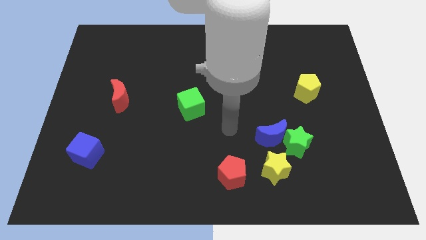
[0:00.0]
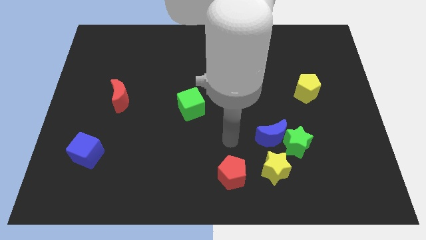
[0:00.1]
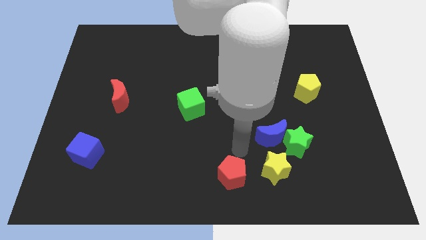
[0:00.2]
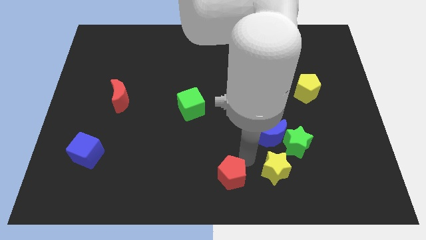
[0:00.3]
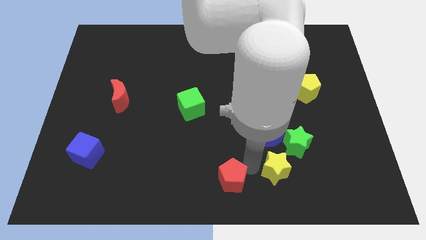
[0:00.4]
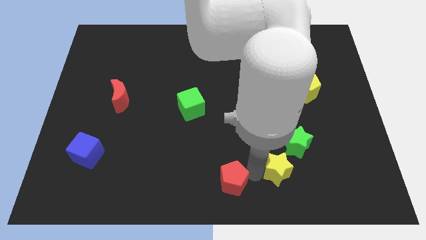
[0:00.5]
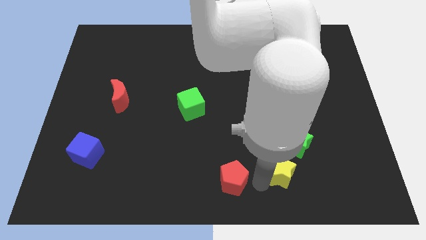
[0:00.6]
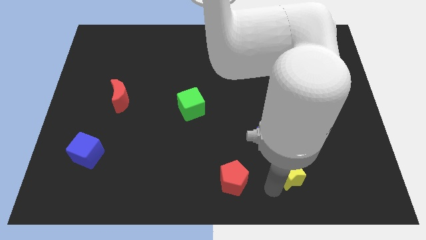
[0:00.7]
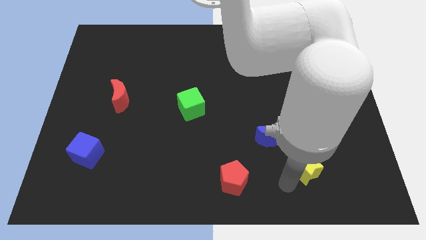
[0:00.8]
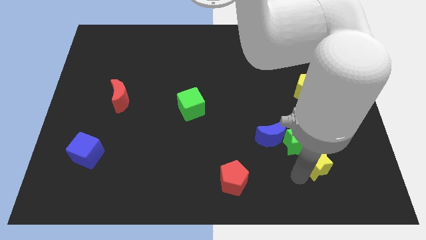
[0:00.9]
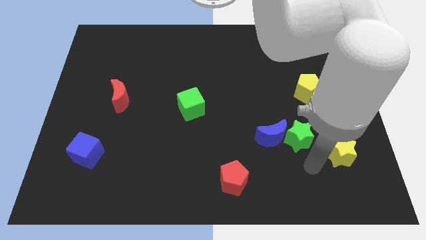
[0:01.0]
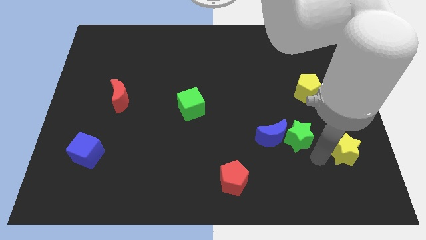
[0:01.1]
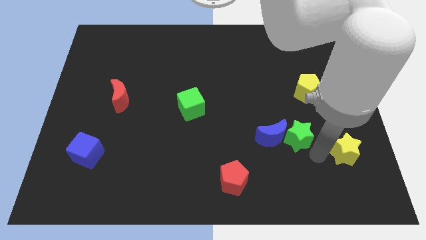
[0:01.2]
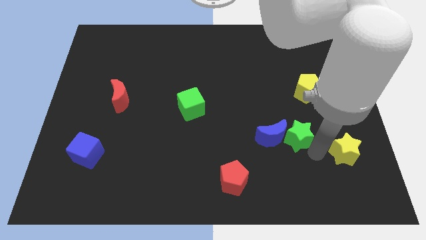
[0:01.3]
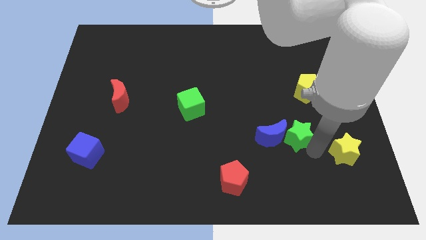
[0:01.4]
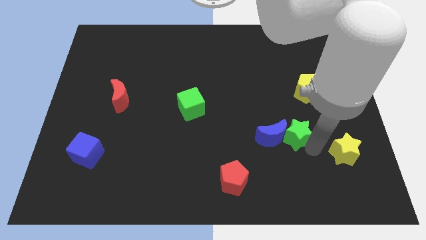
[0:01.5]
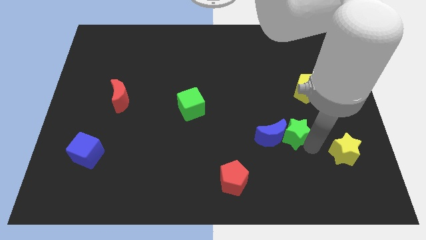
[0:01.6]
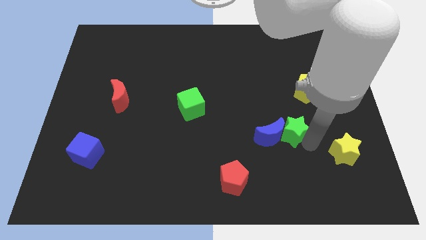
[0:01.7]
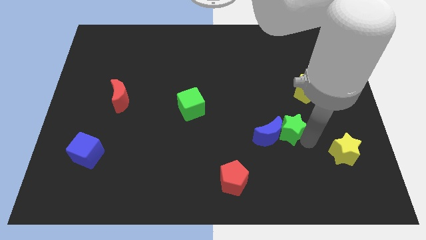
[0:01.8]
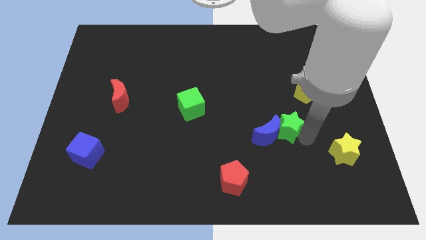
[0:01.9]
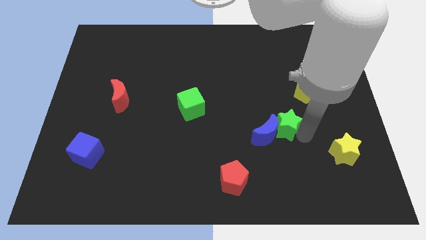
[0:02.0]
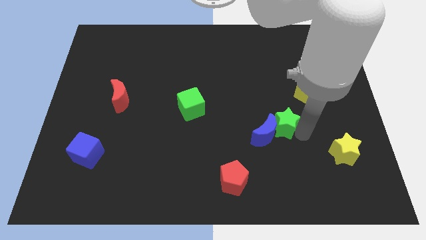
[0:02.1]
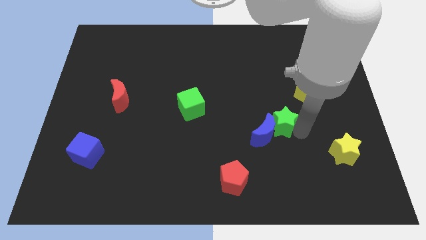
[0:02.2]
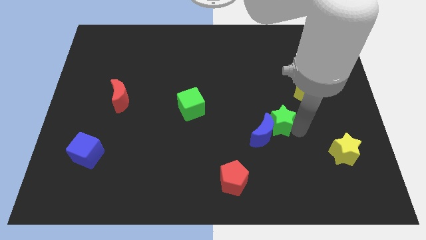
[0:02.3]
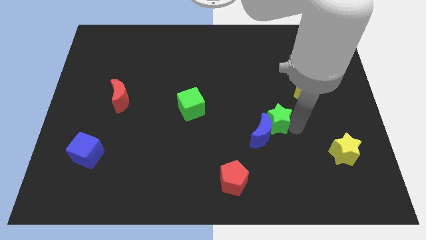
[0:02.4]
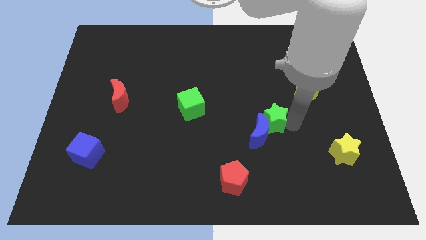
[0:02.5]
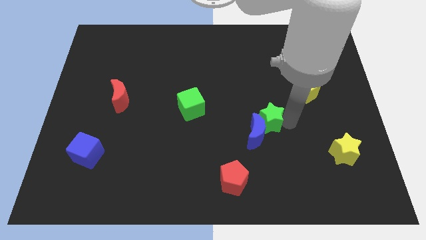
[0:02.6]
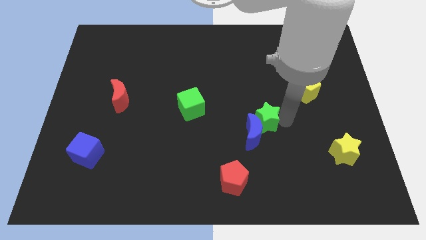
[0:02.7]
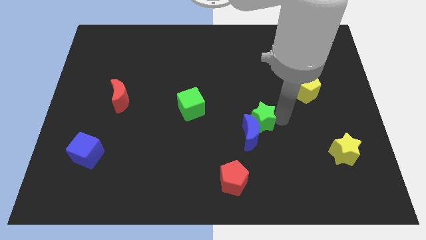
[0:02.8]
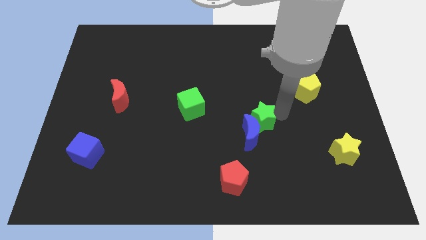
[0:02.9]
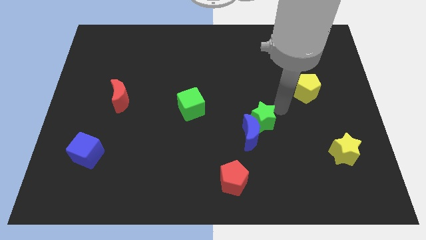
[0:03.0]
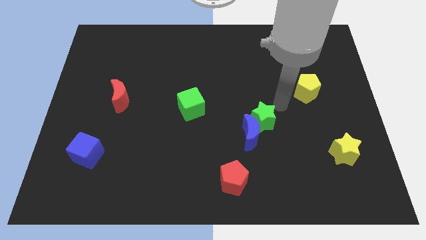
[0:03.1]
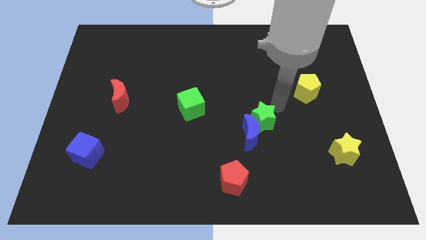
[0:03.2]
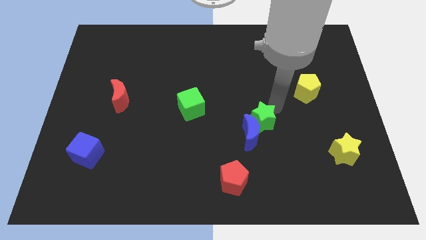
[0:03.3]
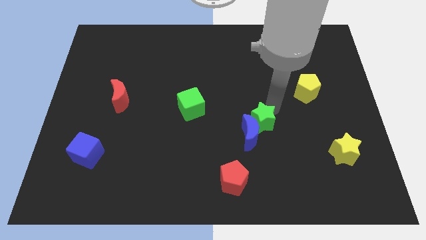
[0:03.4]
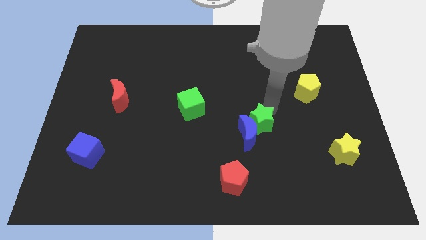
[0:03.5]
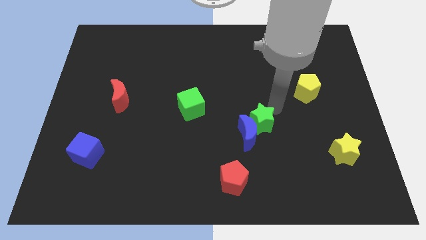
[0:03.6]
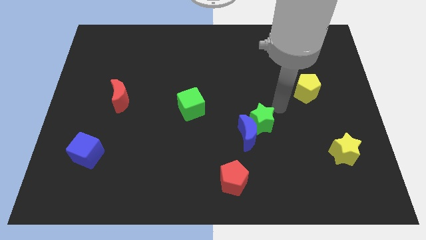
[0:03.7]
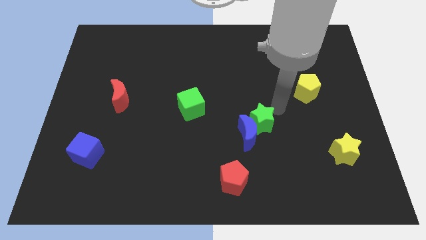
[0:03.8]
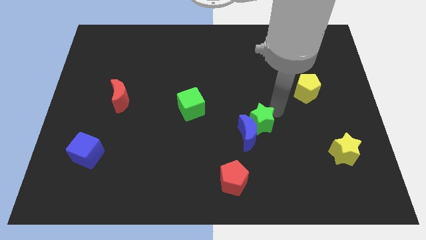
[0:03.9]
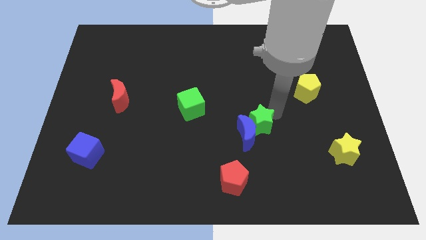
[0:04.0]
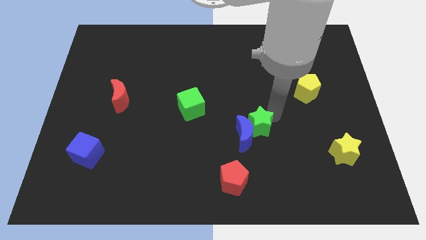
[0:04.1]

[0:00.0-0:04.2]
slide the green star slightly left

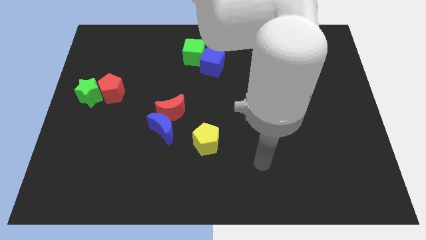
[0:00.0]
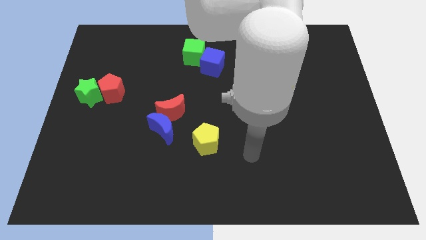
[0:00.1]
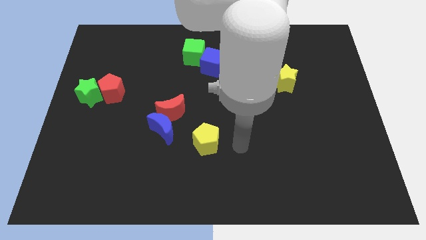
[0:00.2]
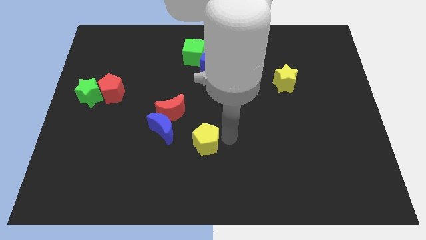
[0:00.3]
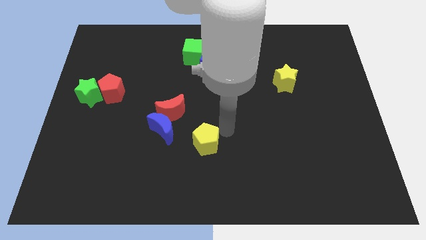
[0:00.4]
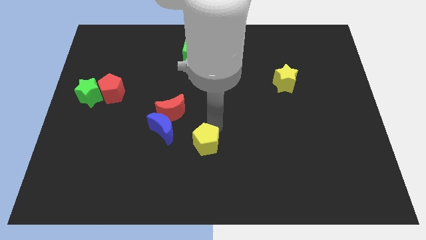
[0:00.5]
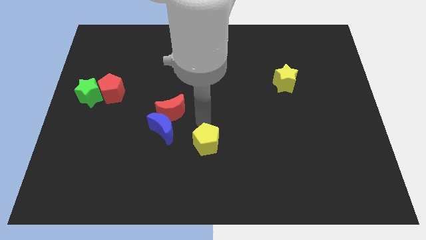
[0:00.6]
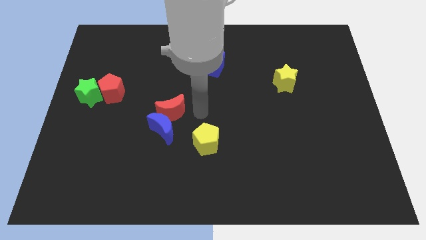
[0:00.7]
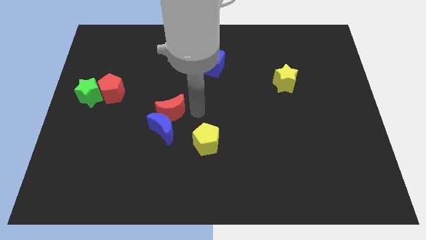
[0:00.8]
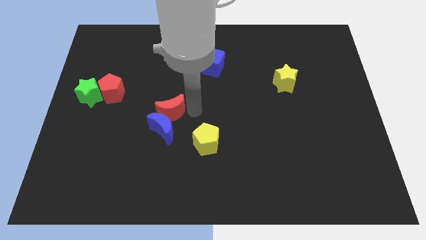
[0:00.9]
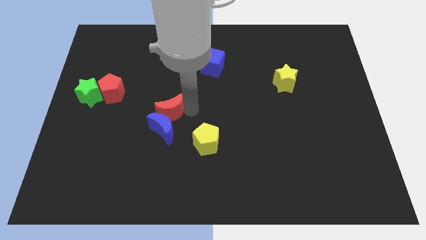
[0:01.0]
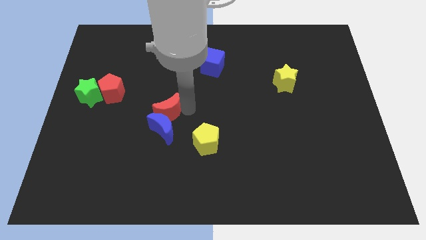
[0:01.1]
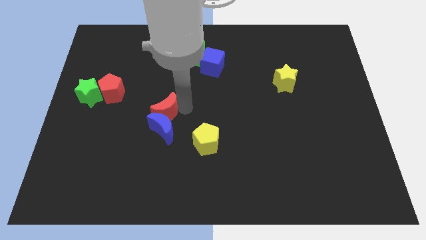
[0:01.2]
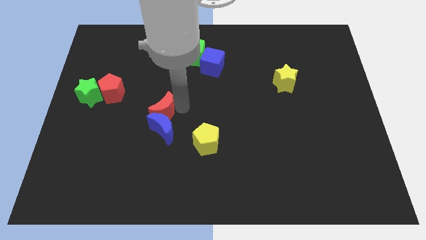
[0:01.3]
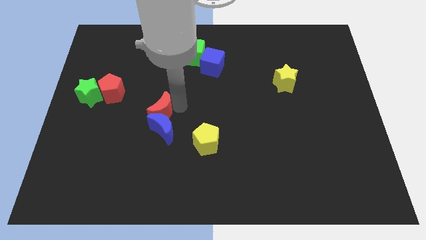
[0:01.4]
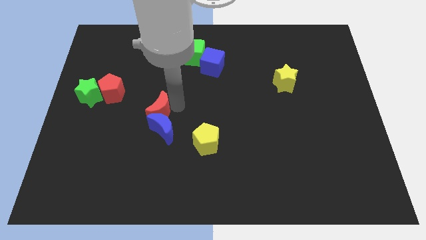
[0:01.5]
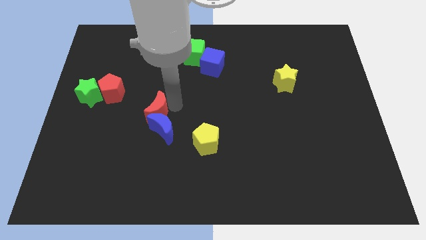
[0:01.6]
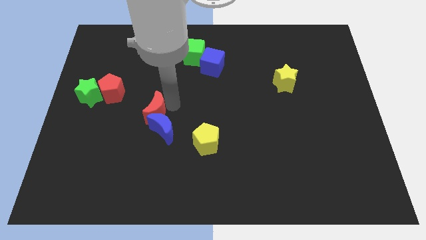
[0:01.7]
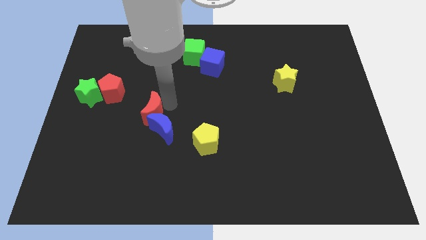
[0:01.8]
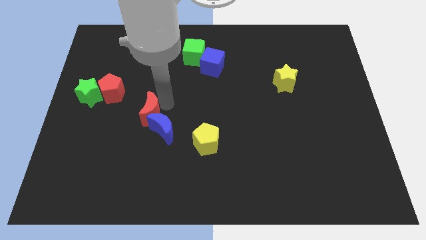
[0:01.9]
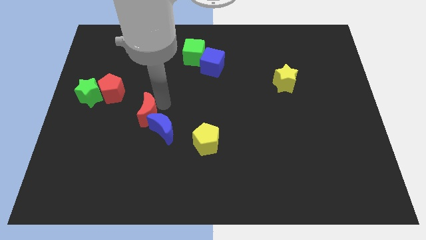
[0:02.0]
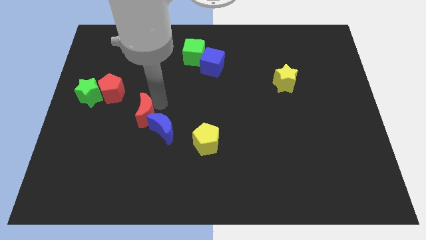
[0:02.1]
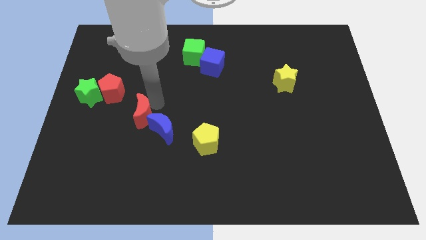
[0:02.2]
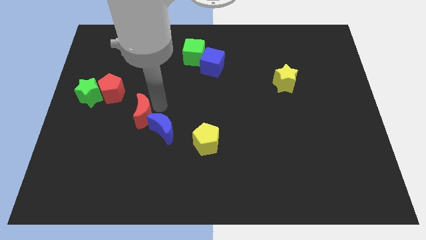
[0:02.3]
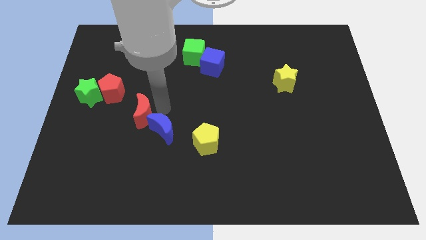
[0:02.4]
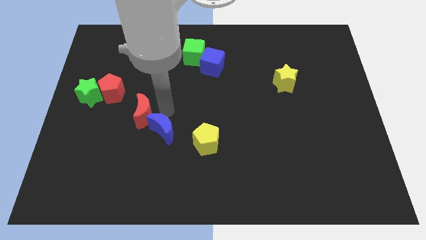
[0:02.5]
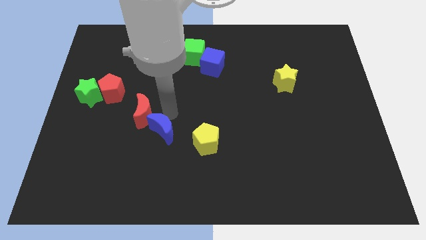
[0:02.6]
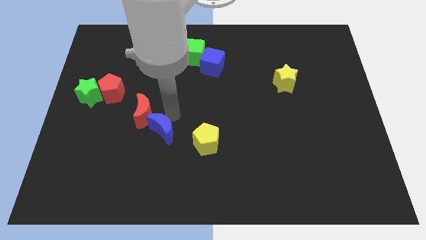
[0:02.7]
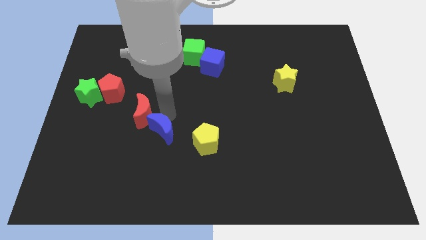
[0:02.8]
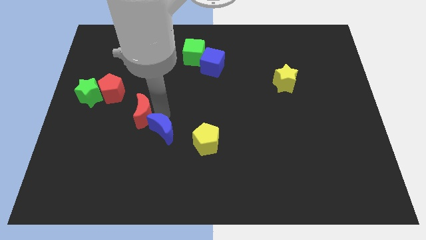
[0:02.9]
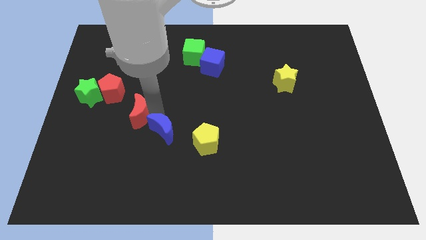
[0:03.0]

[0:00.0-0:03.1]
push the red moon left a little bit

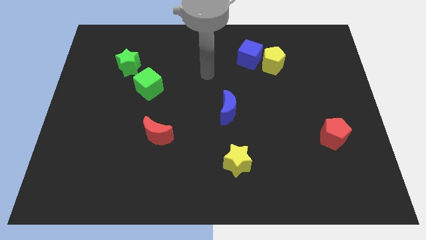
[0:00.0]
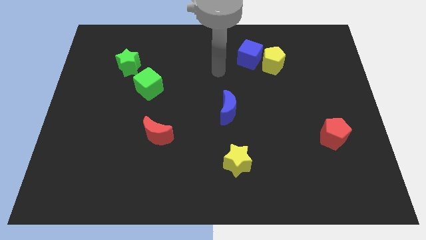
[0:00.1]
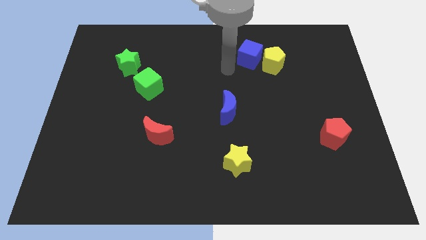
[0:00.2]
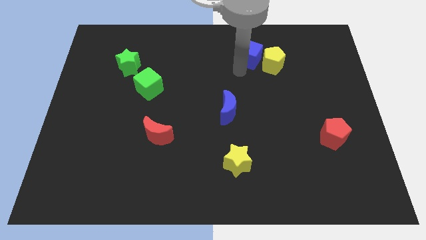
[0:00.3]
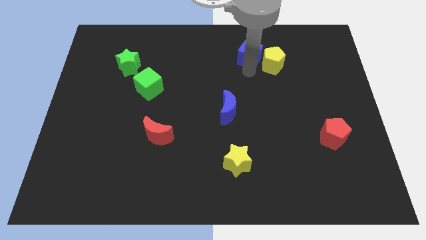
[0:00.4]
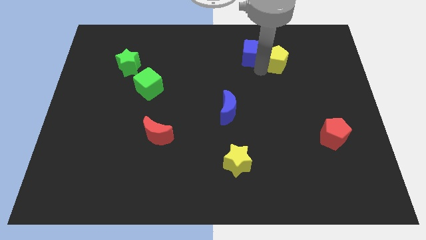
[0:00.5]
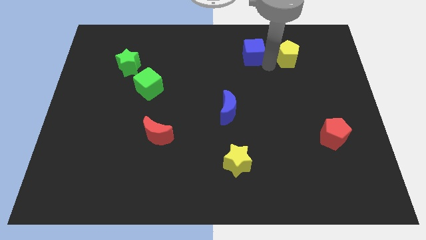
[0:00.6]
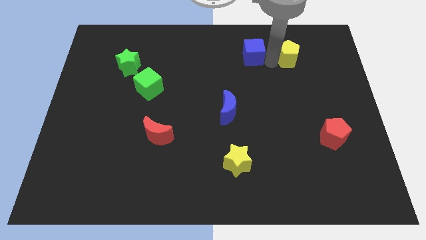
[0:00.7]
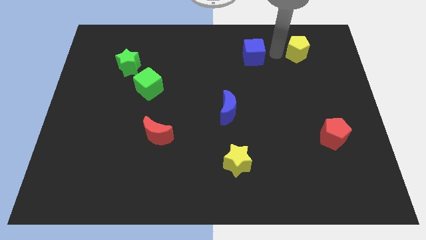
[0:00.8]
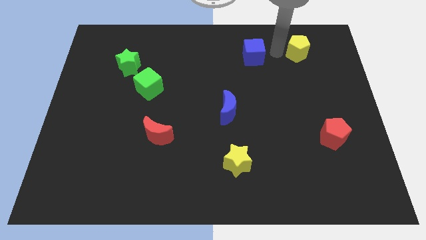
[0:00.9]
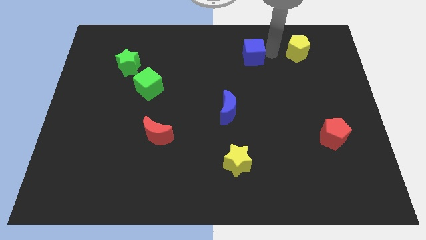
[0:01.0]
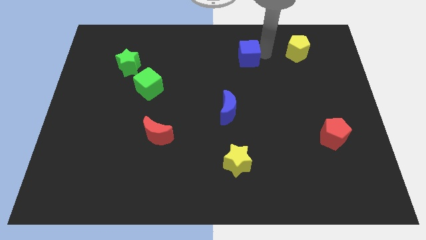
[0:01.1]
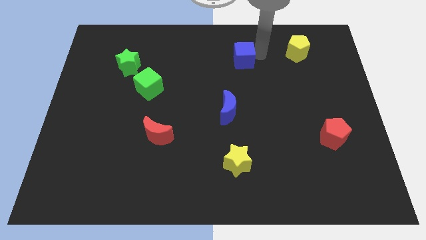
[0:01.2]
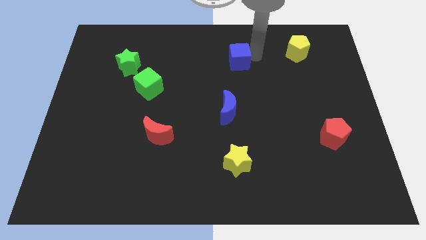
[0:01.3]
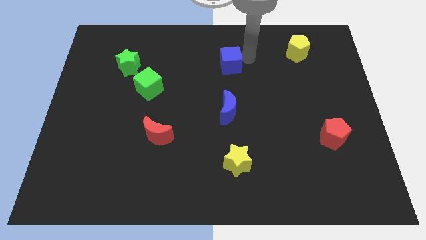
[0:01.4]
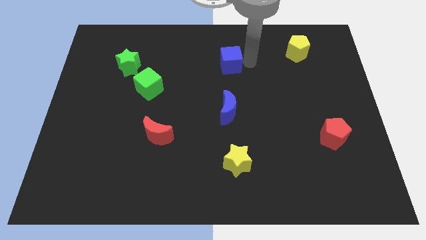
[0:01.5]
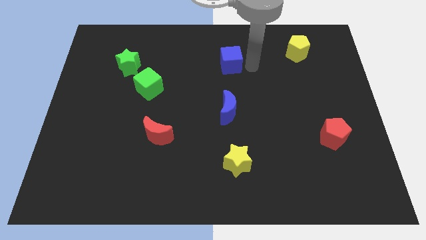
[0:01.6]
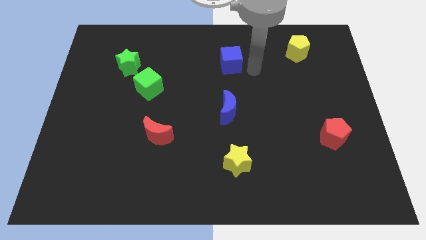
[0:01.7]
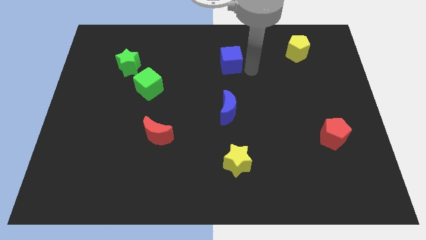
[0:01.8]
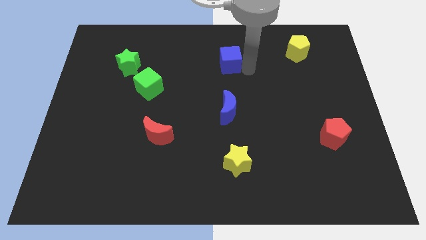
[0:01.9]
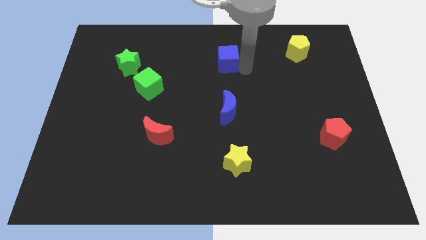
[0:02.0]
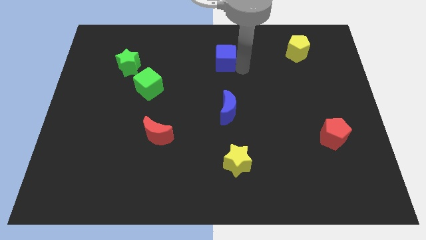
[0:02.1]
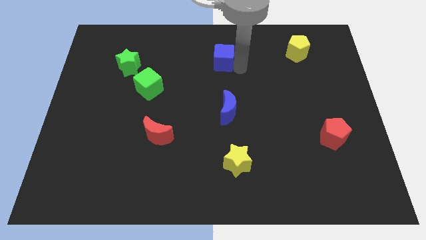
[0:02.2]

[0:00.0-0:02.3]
move the blue cube a bit left
